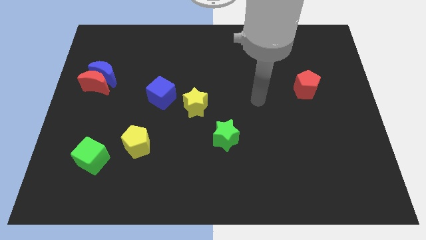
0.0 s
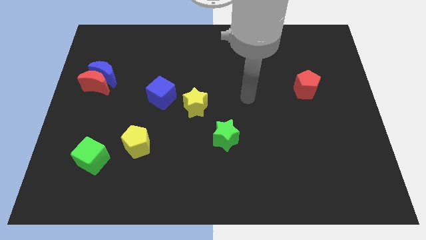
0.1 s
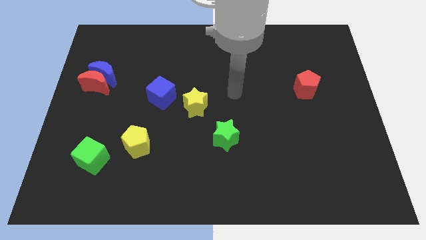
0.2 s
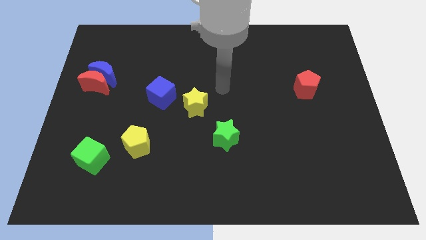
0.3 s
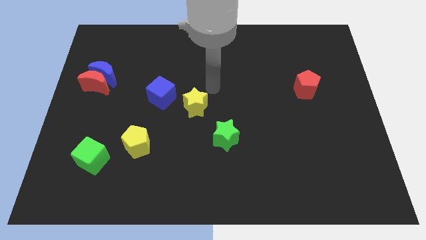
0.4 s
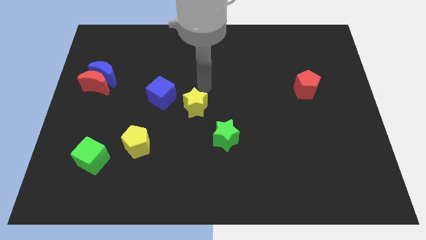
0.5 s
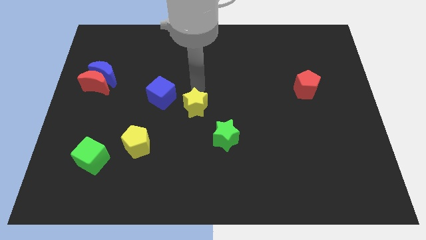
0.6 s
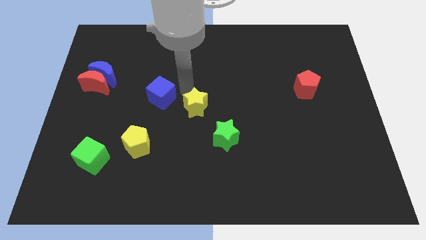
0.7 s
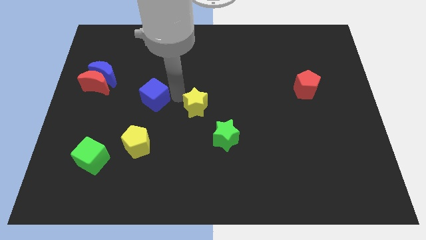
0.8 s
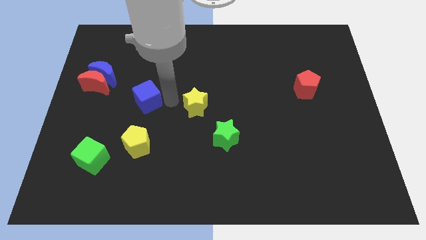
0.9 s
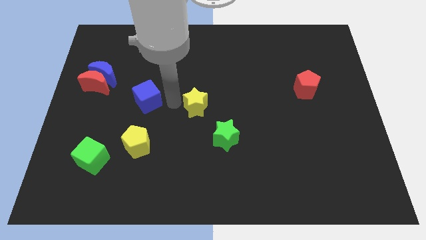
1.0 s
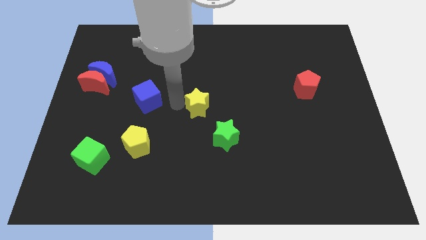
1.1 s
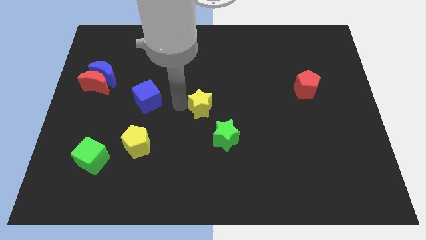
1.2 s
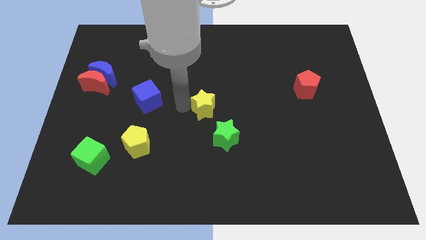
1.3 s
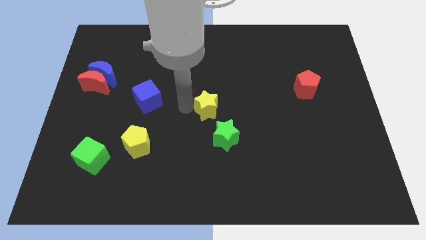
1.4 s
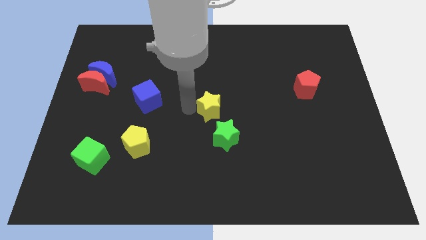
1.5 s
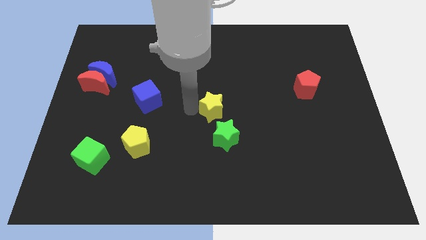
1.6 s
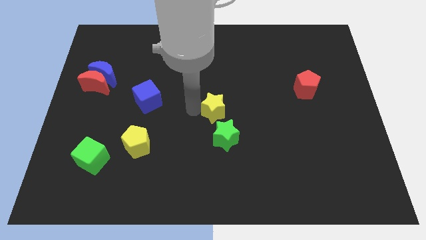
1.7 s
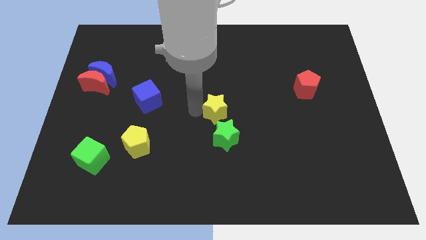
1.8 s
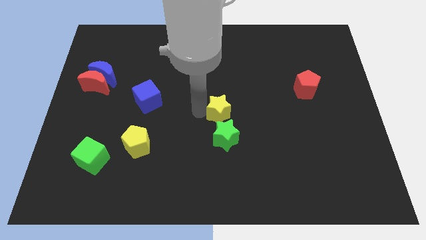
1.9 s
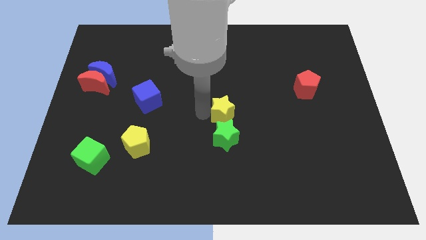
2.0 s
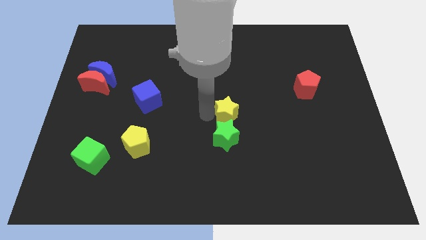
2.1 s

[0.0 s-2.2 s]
slightly move the yellow star to the right

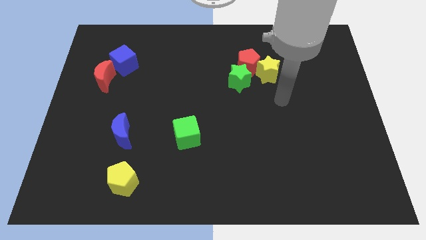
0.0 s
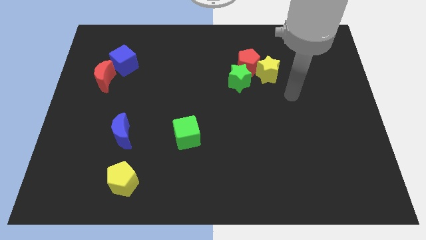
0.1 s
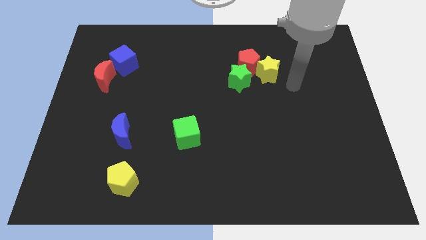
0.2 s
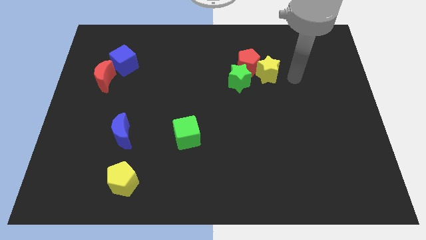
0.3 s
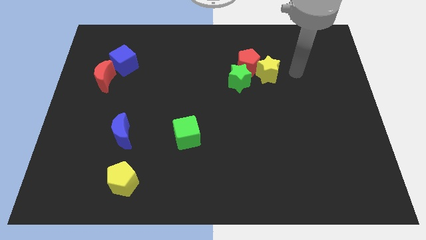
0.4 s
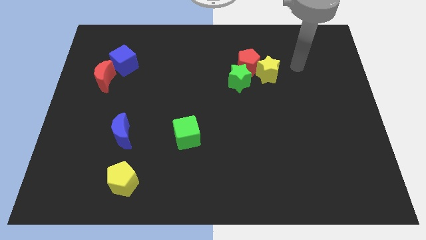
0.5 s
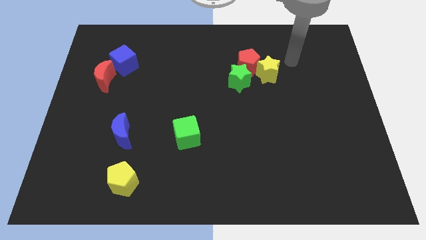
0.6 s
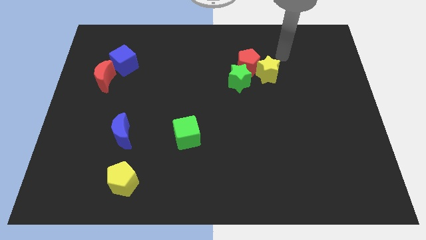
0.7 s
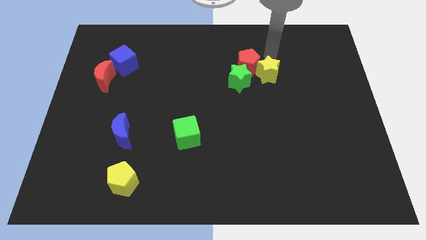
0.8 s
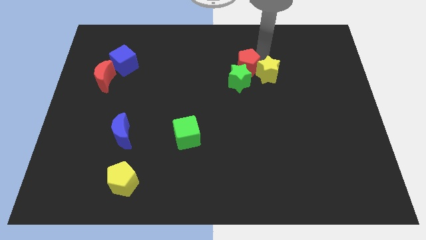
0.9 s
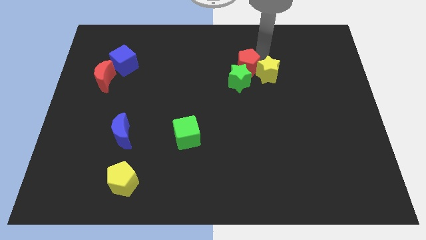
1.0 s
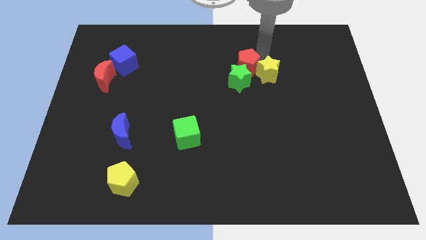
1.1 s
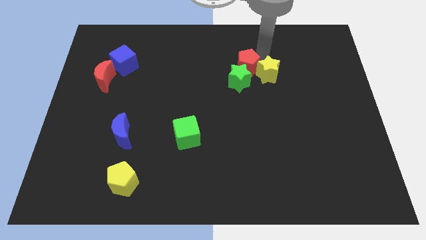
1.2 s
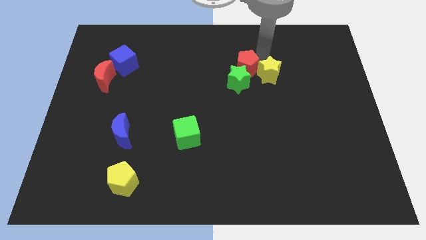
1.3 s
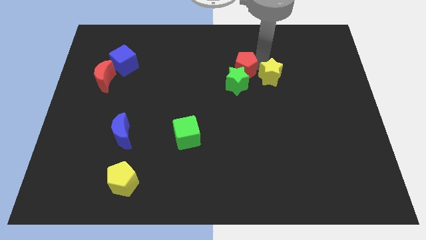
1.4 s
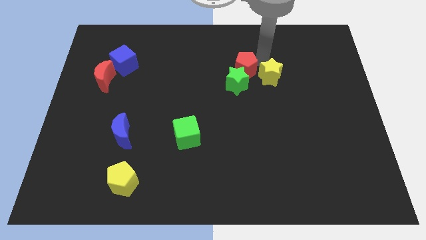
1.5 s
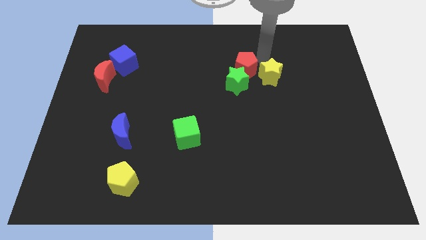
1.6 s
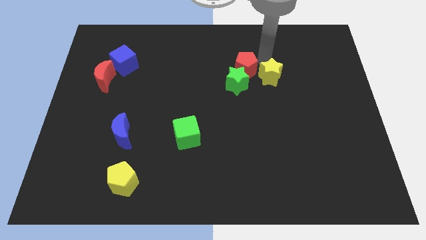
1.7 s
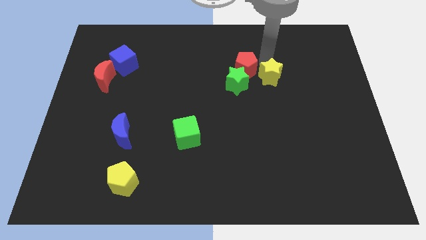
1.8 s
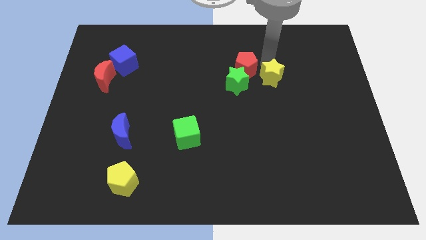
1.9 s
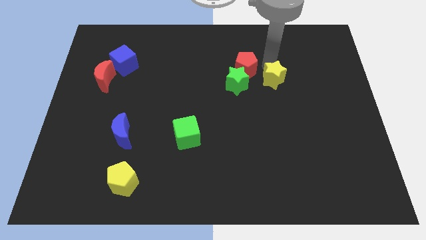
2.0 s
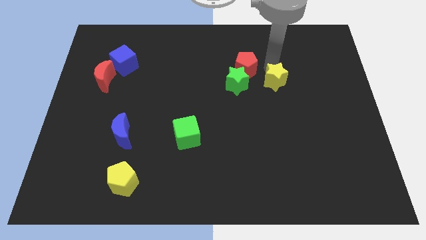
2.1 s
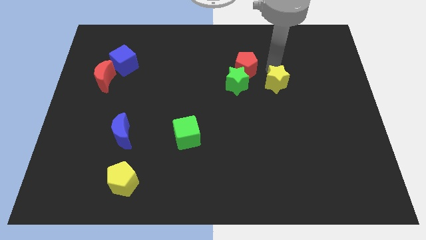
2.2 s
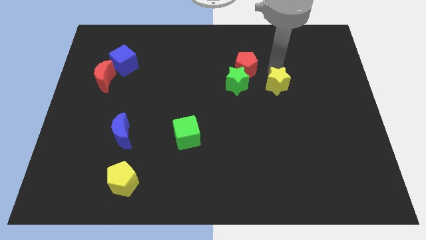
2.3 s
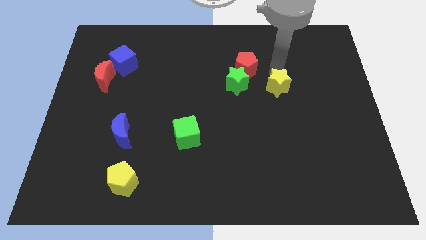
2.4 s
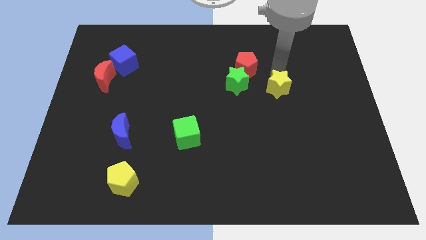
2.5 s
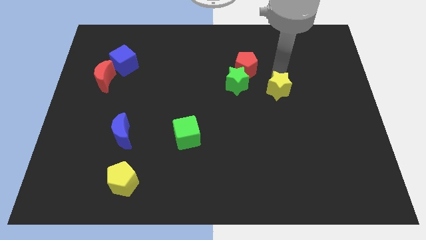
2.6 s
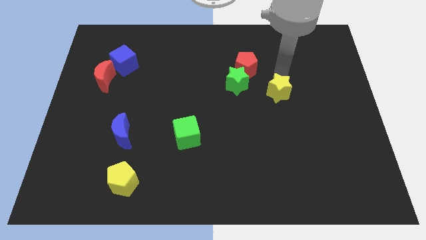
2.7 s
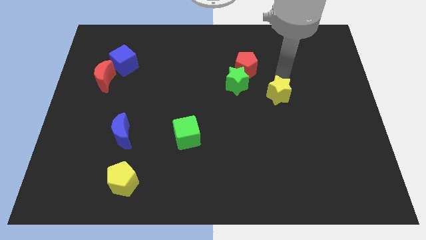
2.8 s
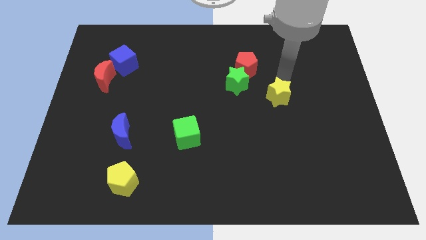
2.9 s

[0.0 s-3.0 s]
push the yellow star down slightly

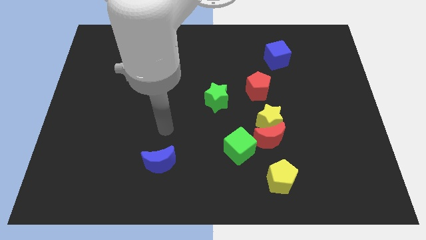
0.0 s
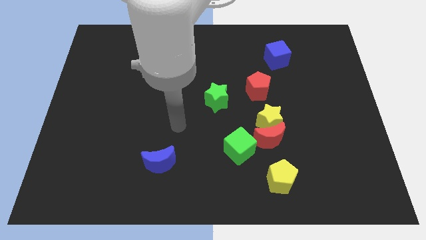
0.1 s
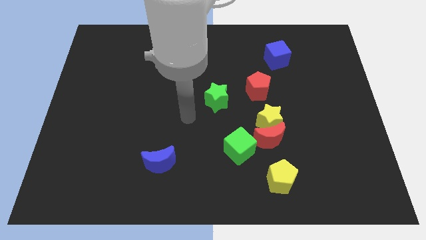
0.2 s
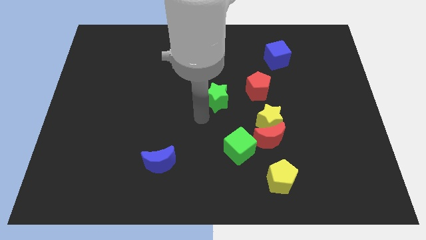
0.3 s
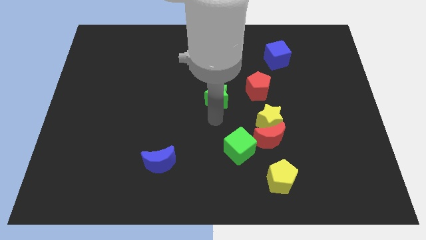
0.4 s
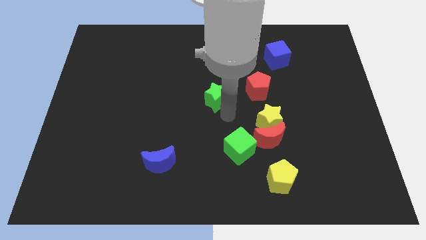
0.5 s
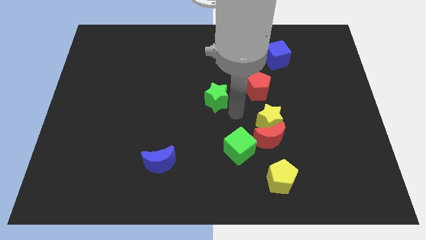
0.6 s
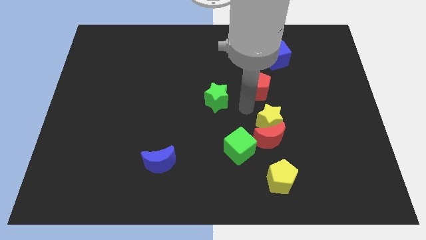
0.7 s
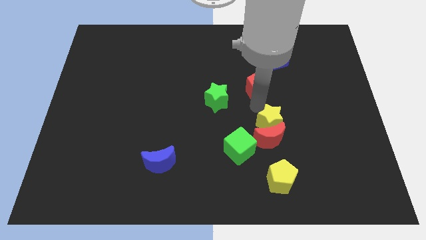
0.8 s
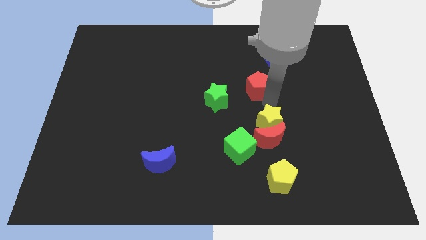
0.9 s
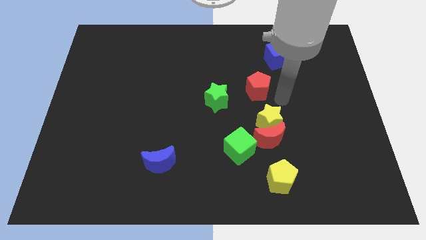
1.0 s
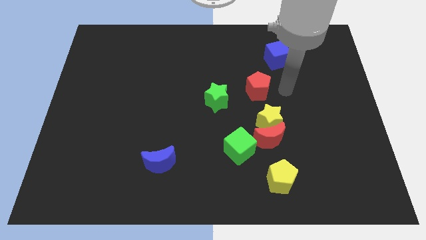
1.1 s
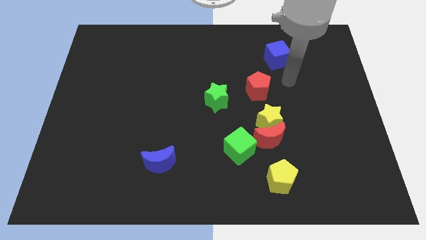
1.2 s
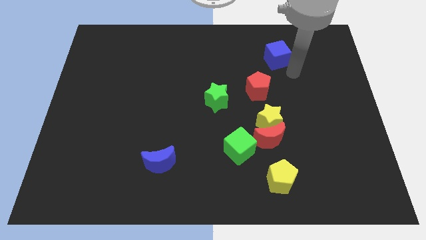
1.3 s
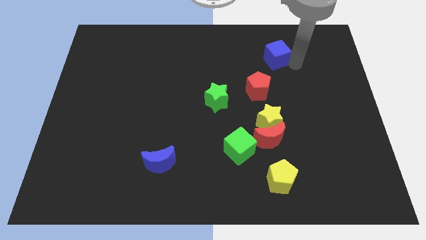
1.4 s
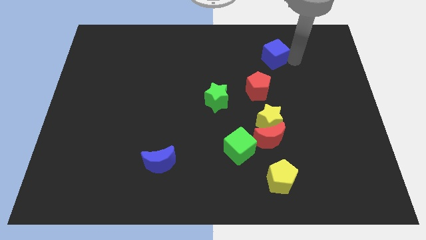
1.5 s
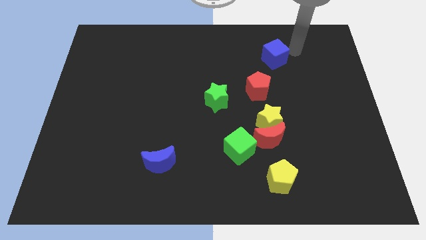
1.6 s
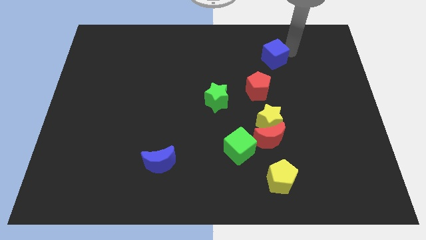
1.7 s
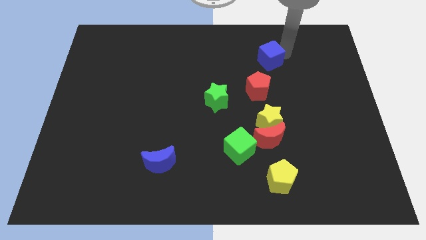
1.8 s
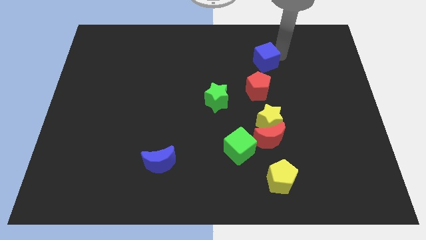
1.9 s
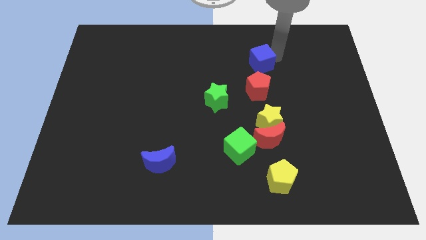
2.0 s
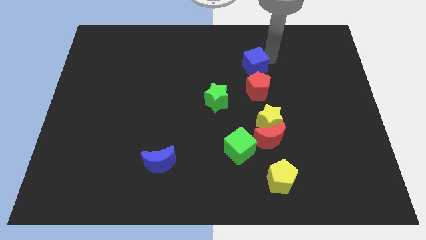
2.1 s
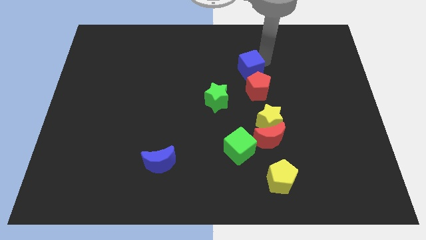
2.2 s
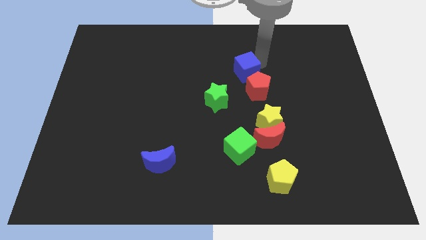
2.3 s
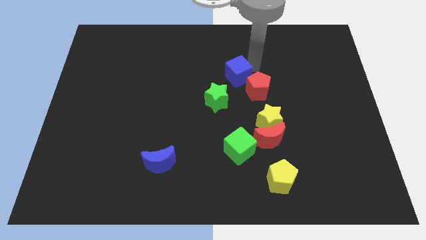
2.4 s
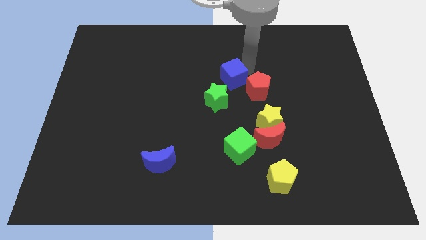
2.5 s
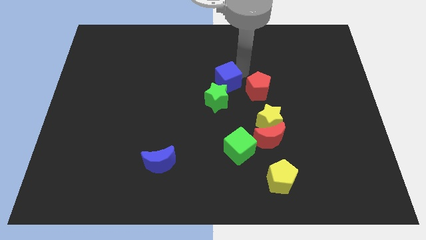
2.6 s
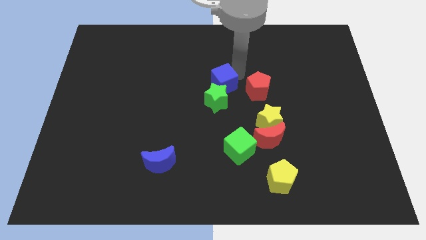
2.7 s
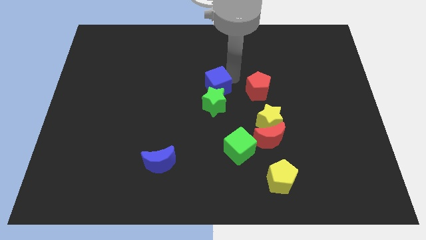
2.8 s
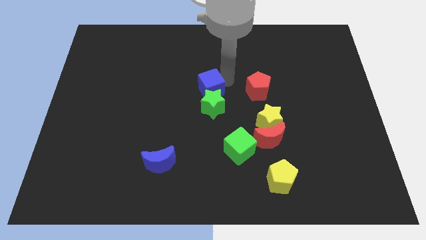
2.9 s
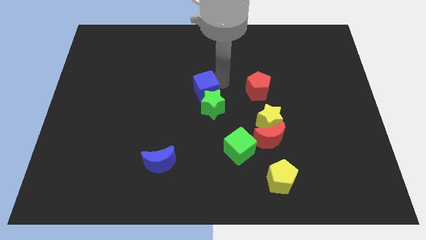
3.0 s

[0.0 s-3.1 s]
move the blue cube down and left diagonally

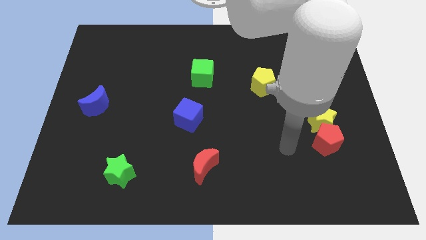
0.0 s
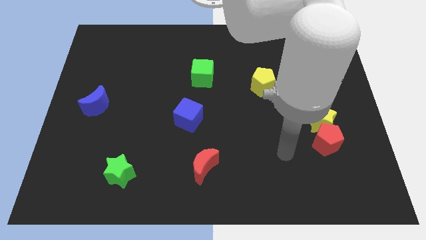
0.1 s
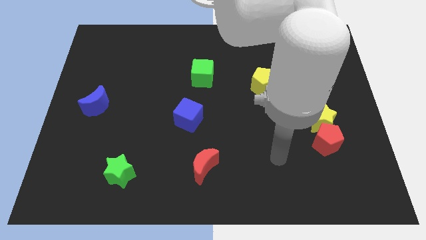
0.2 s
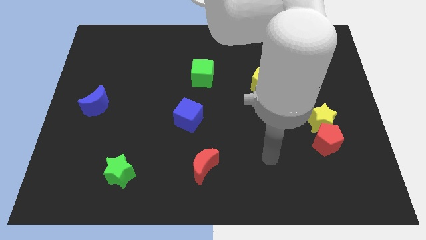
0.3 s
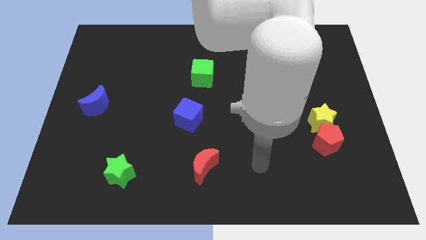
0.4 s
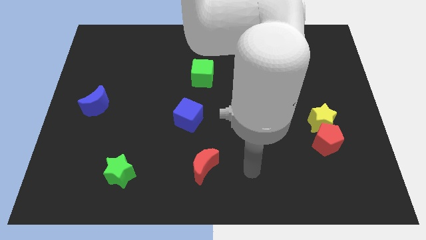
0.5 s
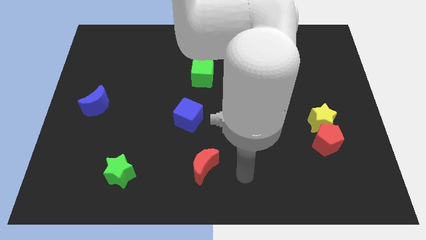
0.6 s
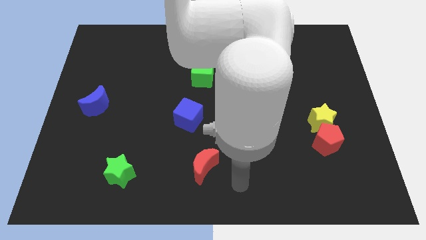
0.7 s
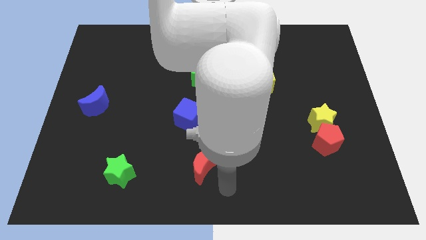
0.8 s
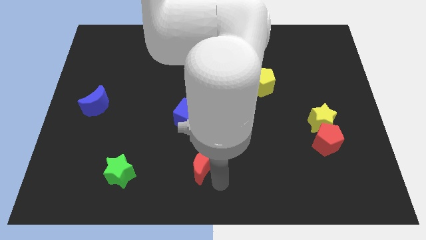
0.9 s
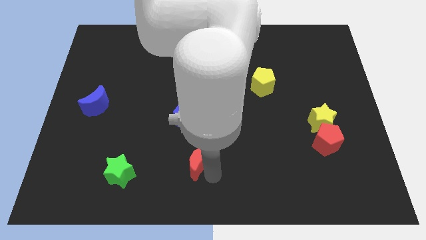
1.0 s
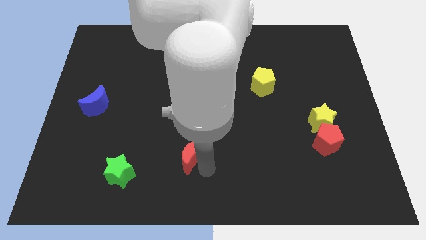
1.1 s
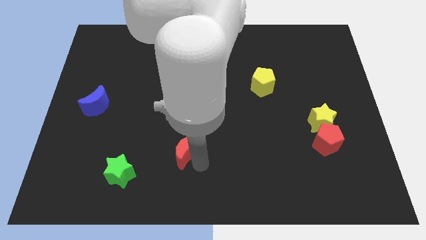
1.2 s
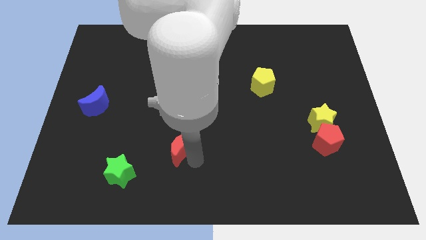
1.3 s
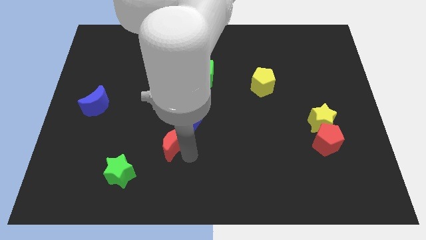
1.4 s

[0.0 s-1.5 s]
slightly slide the red moon up and then to the left
